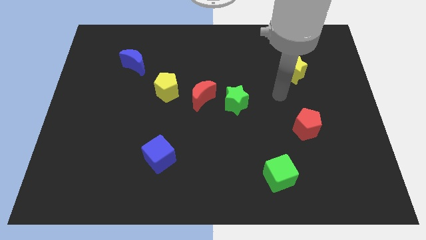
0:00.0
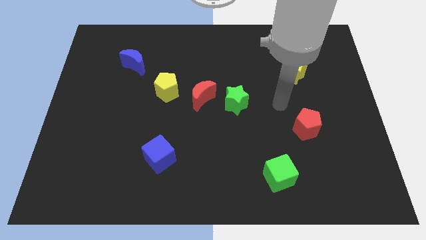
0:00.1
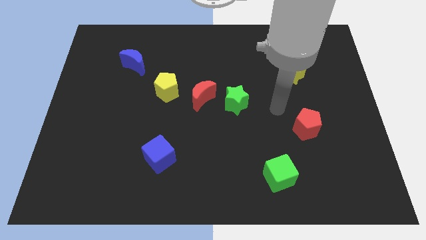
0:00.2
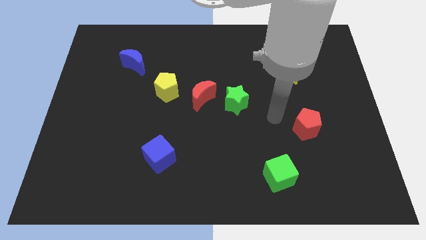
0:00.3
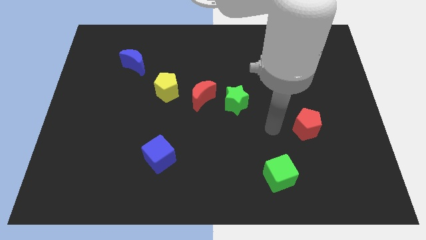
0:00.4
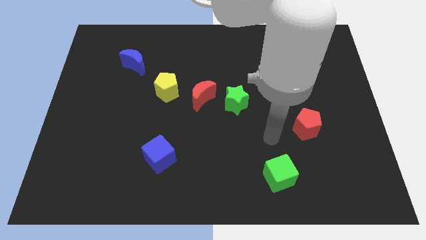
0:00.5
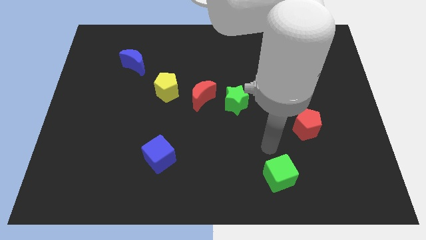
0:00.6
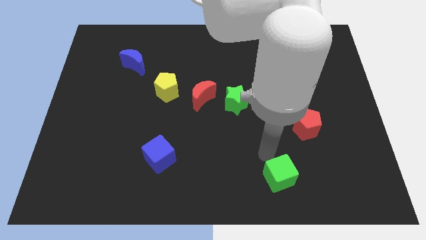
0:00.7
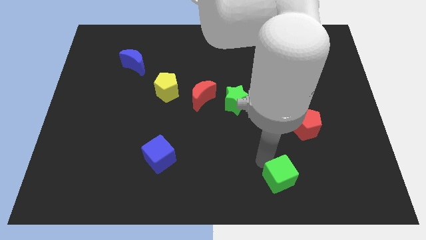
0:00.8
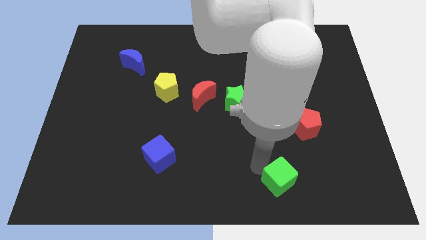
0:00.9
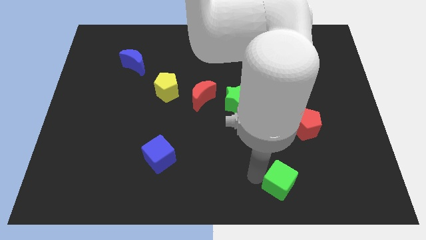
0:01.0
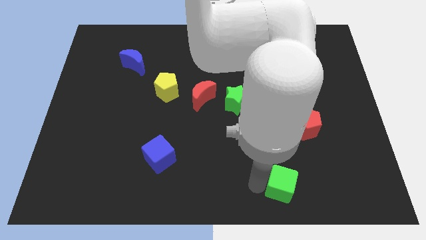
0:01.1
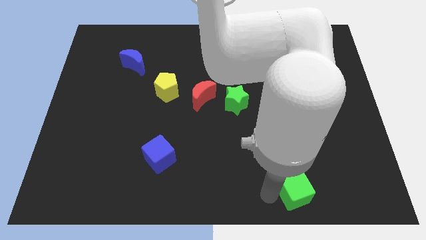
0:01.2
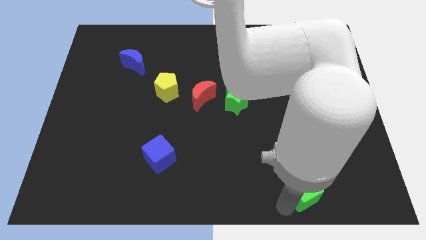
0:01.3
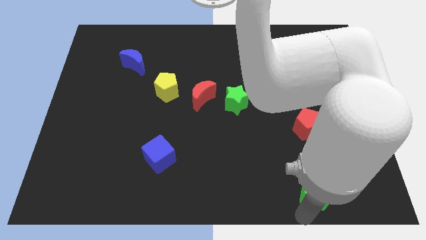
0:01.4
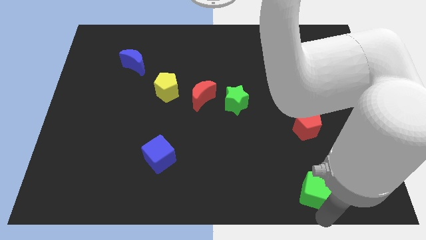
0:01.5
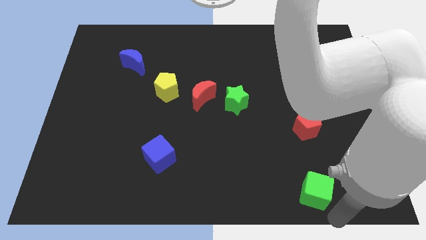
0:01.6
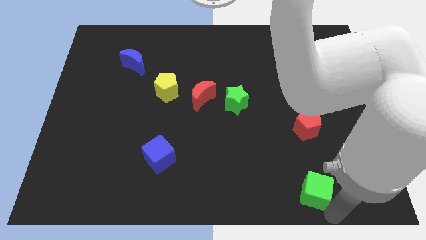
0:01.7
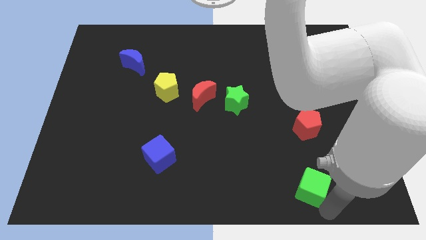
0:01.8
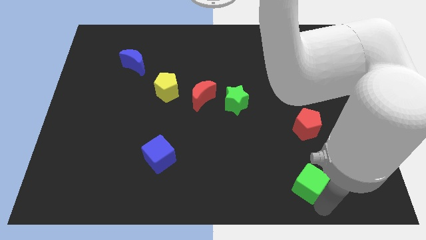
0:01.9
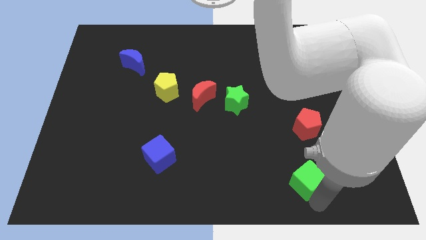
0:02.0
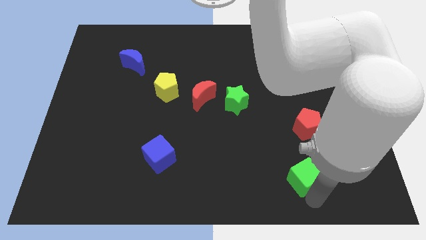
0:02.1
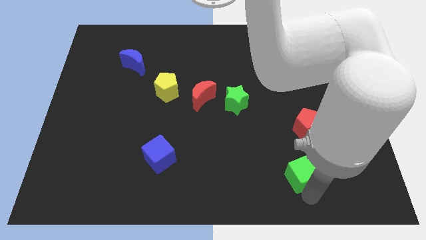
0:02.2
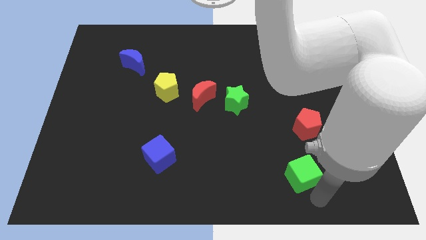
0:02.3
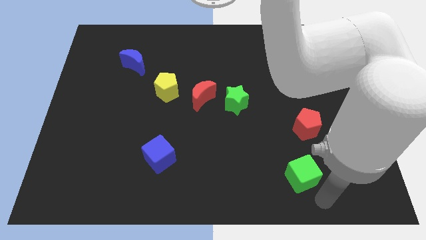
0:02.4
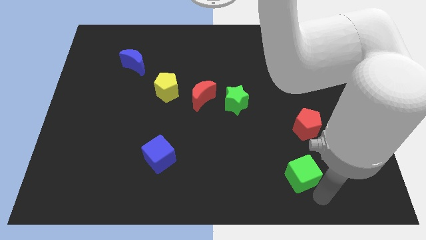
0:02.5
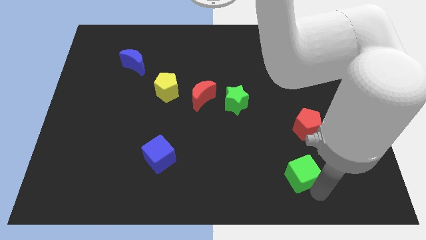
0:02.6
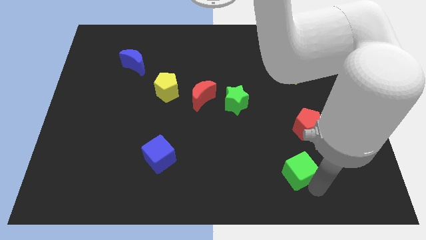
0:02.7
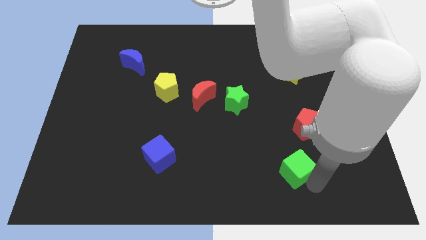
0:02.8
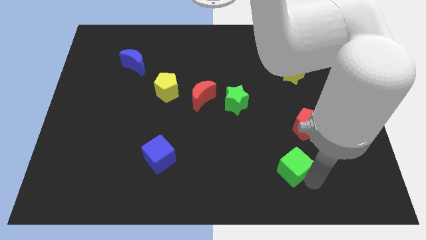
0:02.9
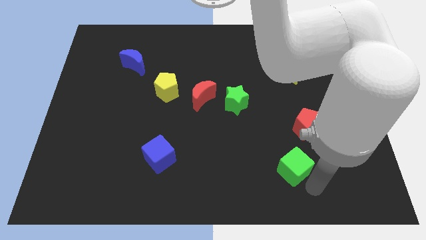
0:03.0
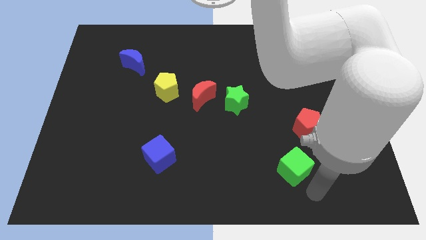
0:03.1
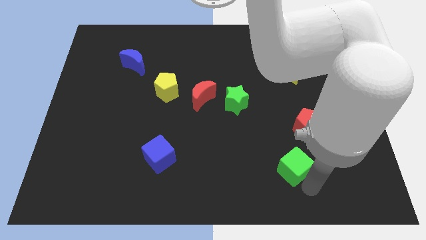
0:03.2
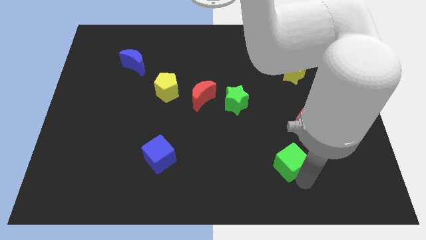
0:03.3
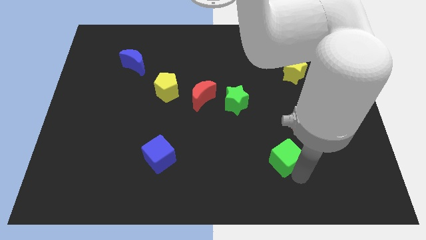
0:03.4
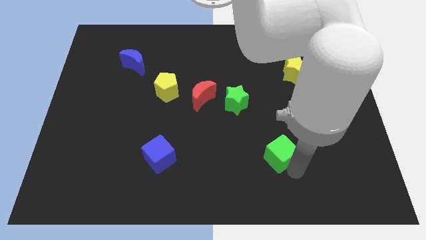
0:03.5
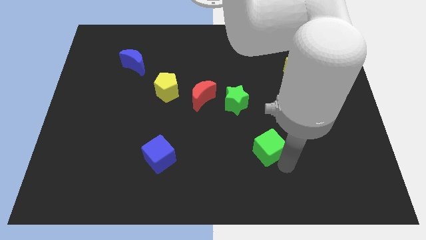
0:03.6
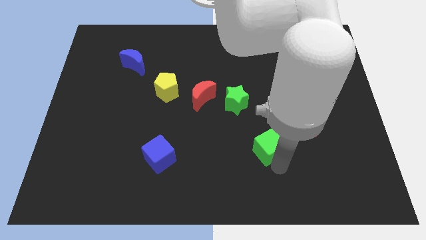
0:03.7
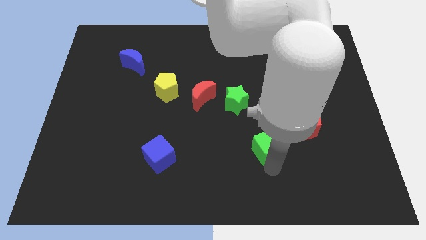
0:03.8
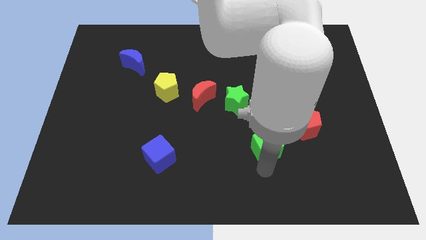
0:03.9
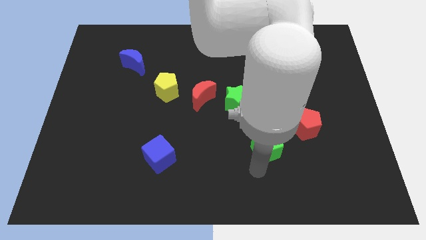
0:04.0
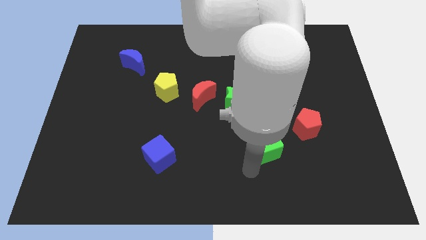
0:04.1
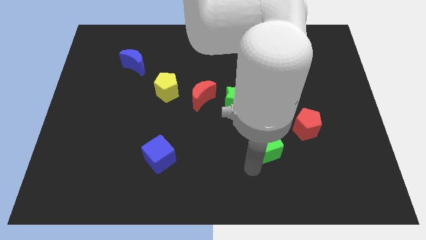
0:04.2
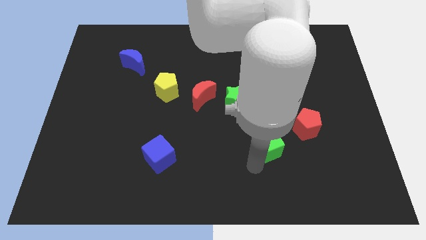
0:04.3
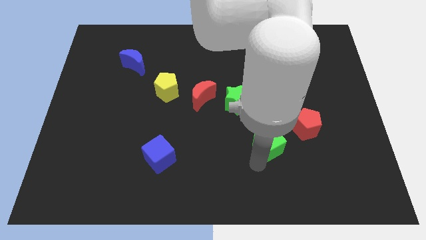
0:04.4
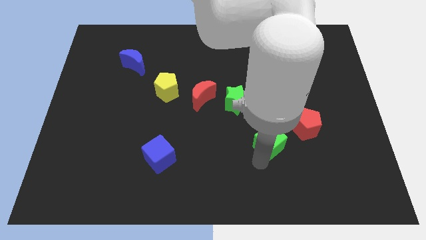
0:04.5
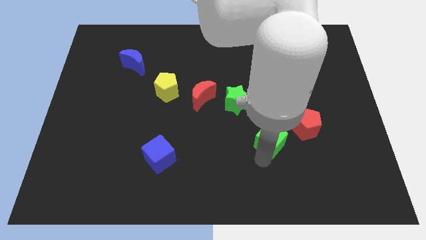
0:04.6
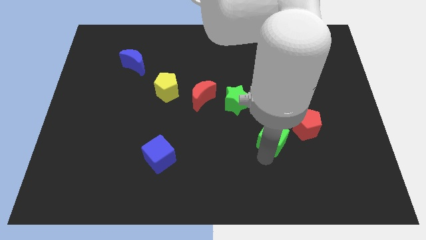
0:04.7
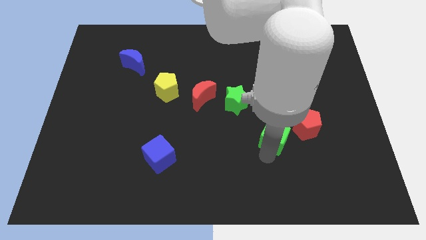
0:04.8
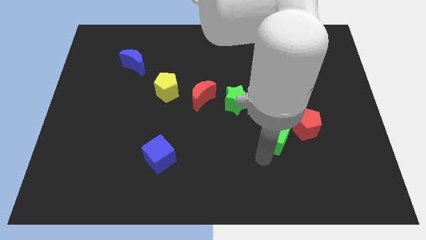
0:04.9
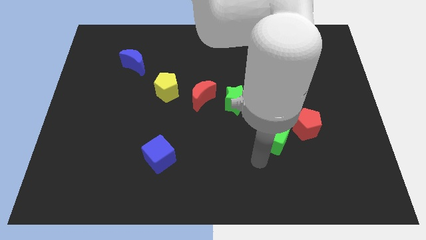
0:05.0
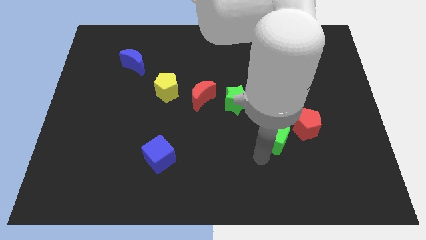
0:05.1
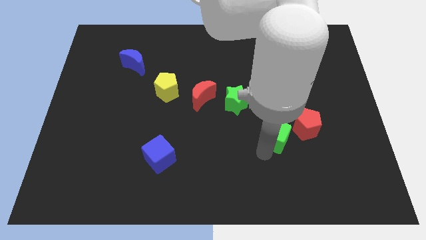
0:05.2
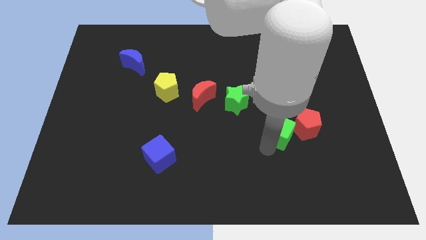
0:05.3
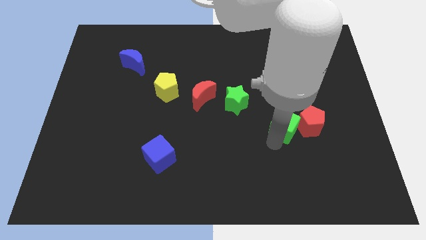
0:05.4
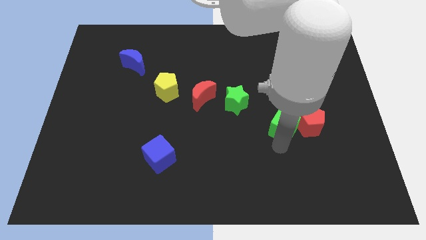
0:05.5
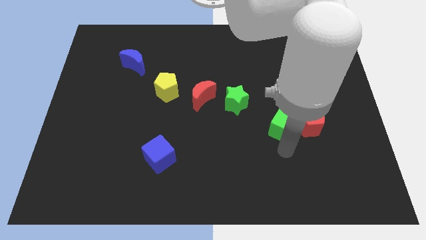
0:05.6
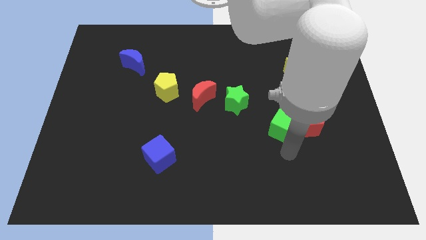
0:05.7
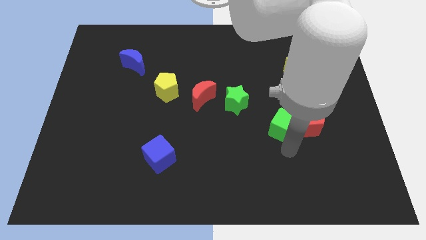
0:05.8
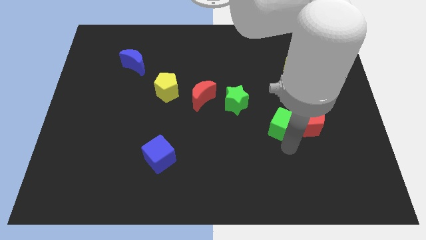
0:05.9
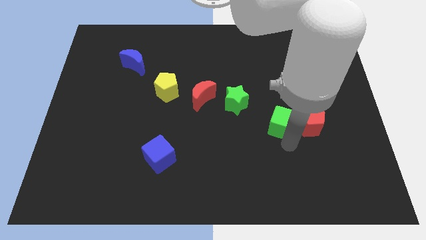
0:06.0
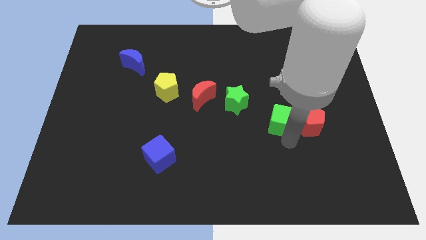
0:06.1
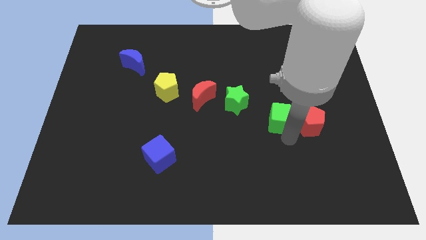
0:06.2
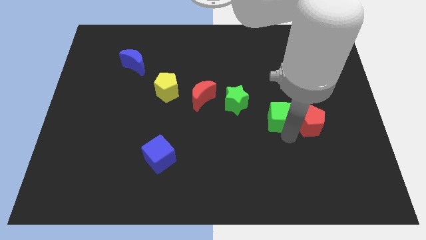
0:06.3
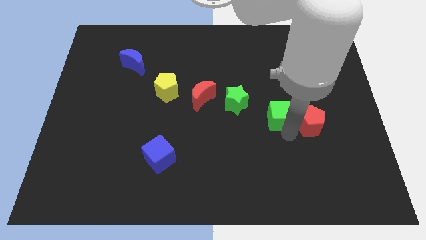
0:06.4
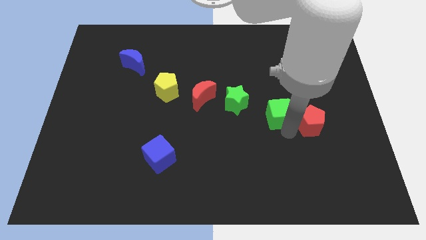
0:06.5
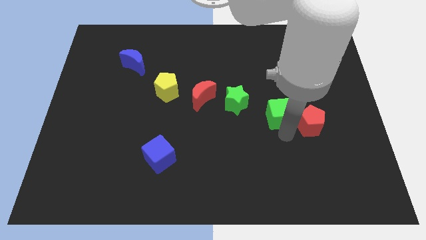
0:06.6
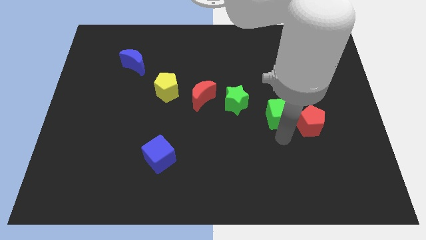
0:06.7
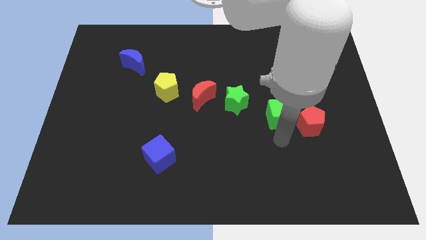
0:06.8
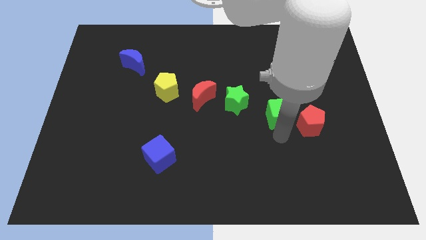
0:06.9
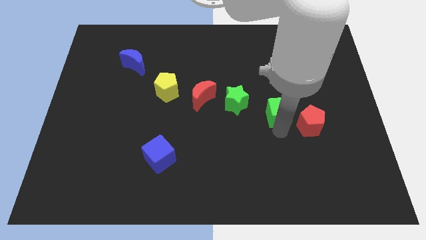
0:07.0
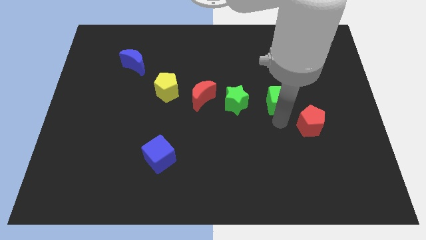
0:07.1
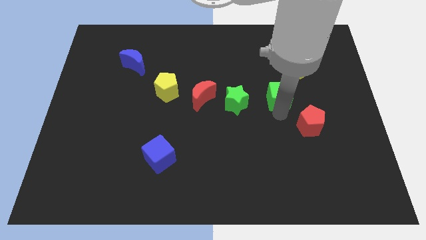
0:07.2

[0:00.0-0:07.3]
slide the green cube up

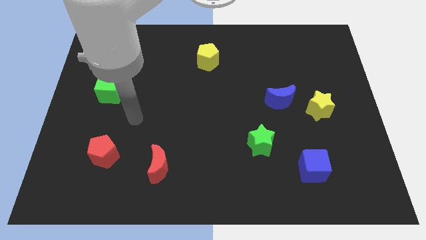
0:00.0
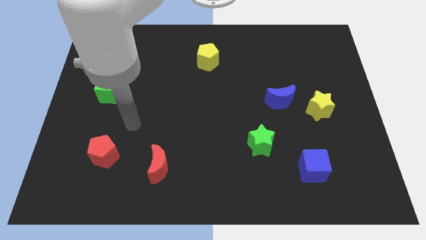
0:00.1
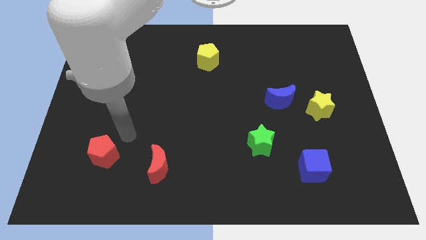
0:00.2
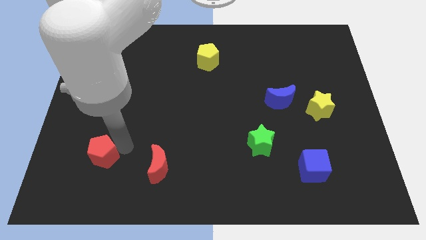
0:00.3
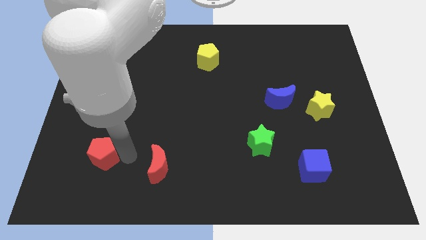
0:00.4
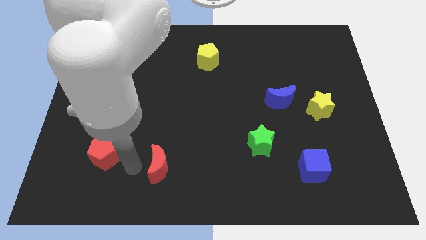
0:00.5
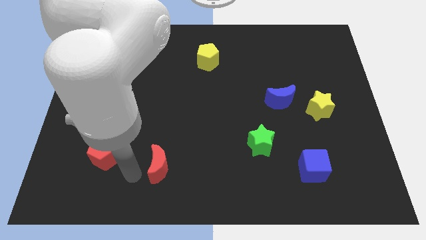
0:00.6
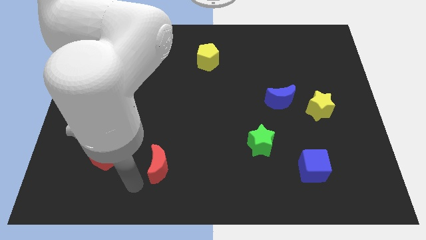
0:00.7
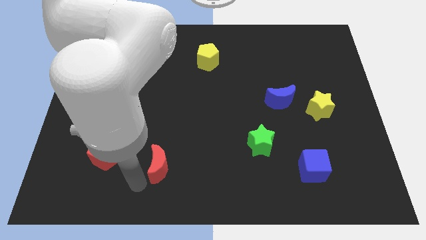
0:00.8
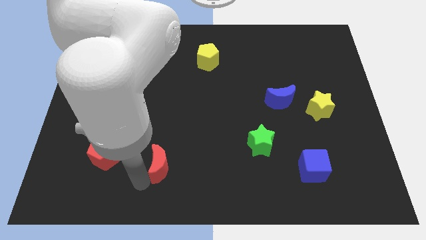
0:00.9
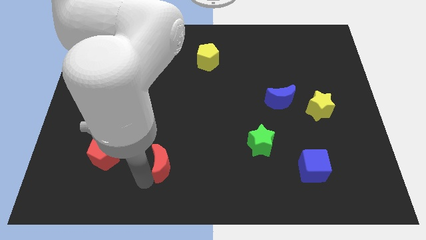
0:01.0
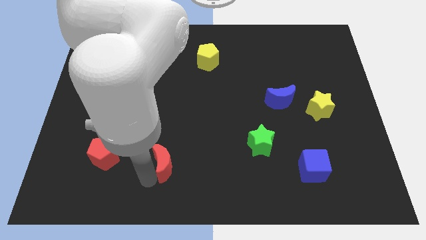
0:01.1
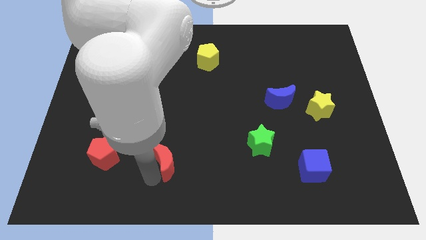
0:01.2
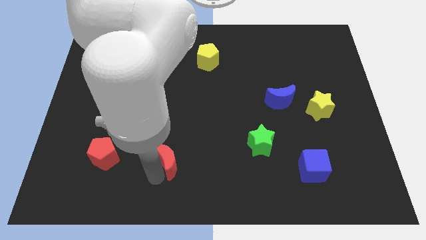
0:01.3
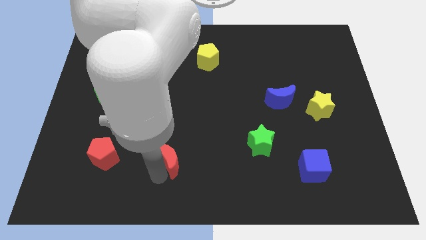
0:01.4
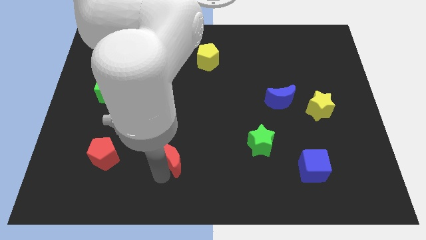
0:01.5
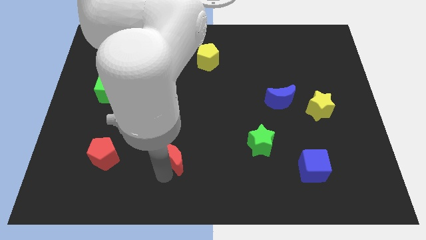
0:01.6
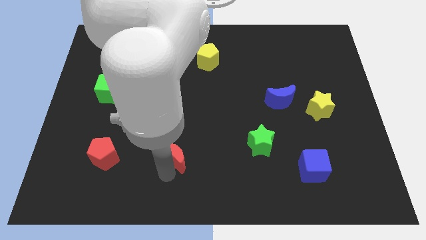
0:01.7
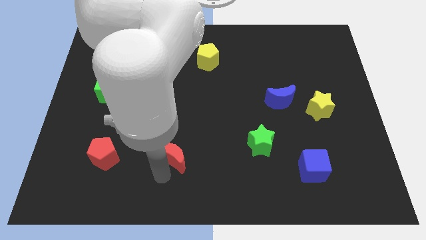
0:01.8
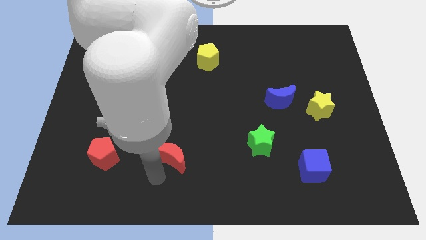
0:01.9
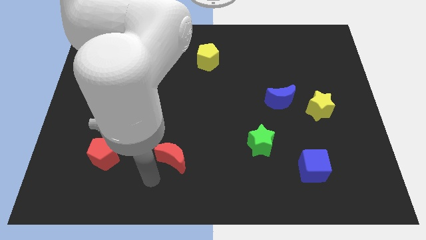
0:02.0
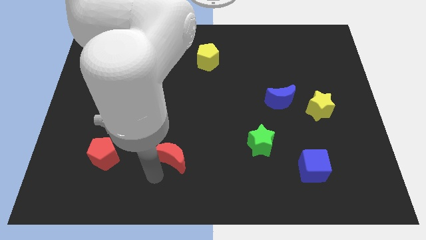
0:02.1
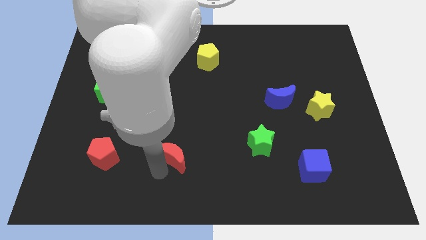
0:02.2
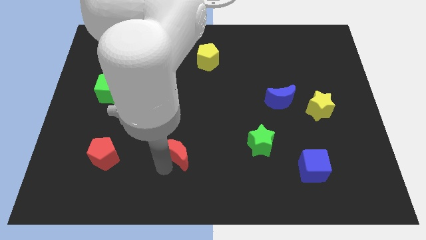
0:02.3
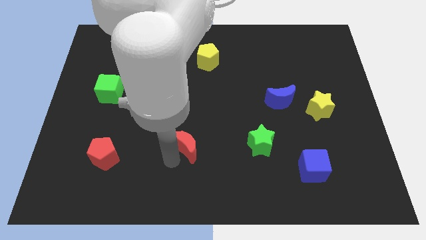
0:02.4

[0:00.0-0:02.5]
slightly slide the red moon upwards and to the right
